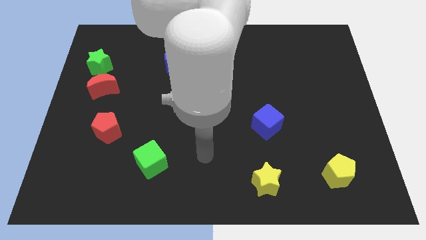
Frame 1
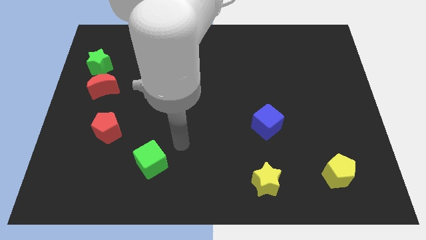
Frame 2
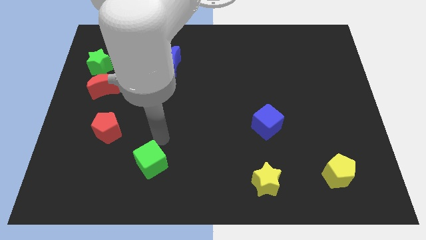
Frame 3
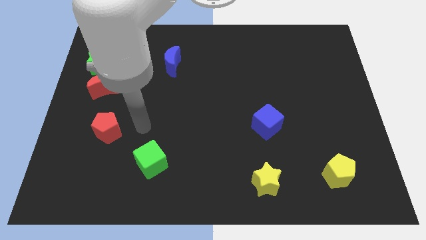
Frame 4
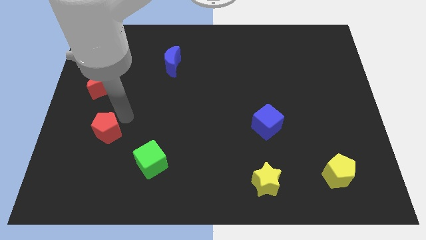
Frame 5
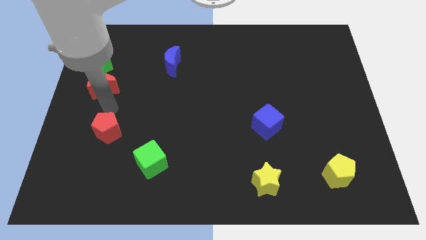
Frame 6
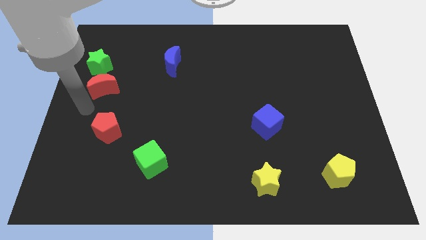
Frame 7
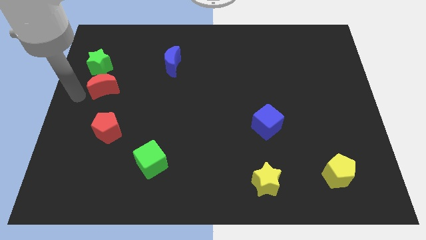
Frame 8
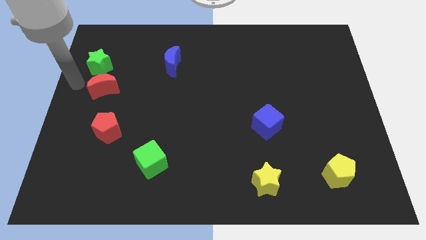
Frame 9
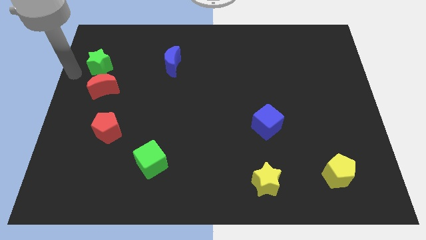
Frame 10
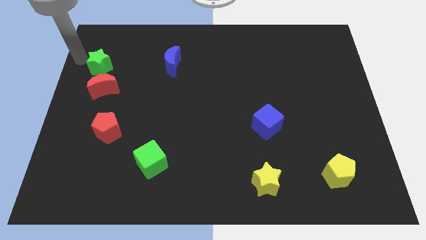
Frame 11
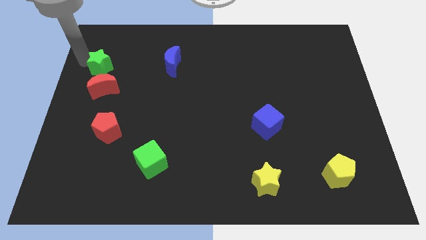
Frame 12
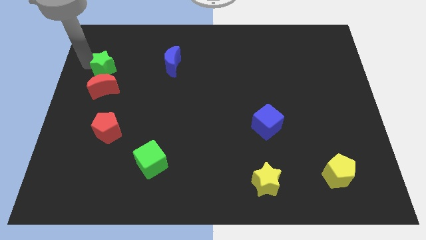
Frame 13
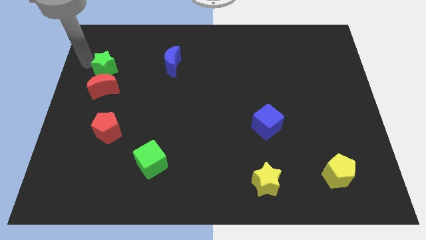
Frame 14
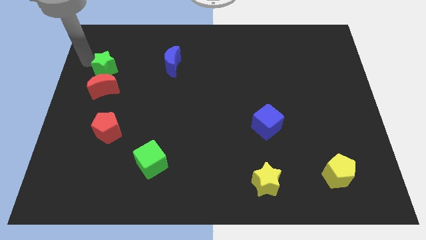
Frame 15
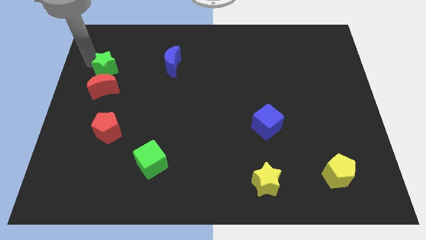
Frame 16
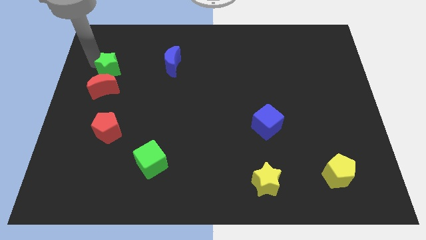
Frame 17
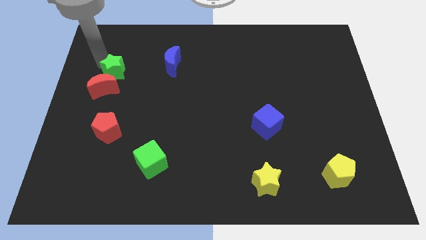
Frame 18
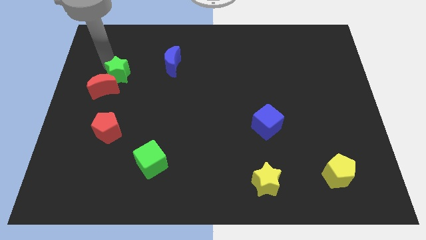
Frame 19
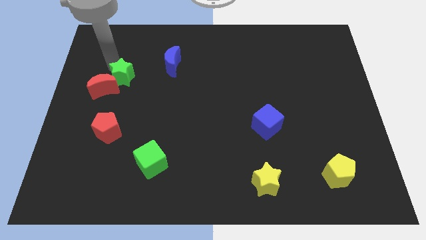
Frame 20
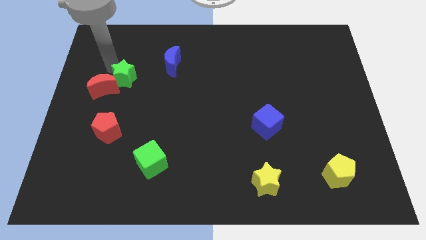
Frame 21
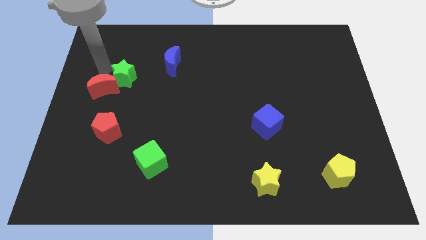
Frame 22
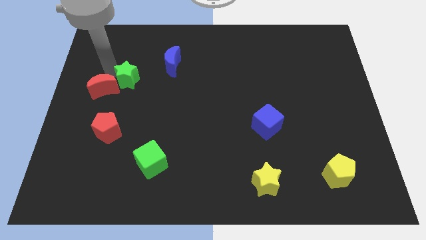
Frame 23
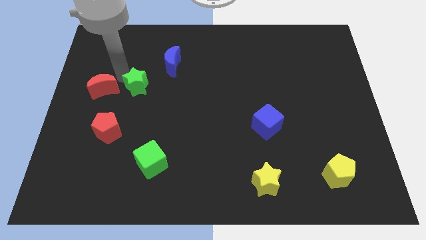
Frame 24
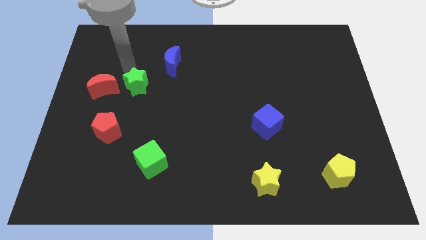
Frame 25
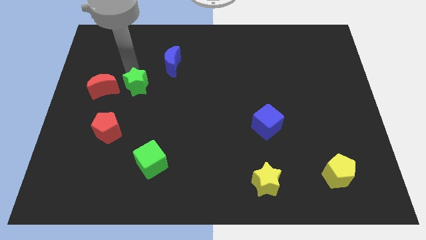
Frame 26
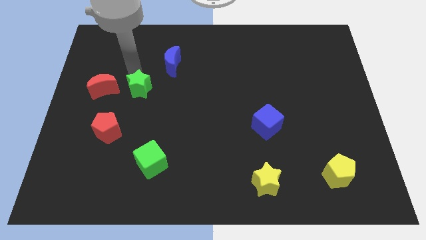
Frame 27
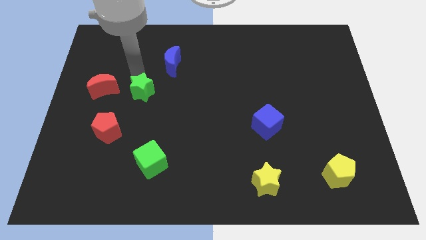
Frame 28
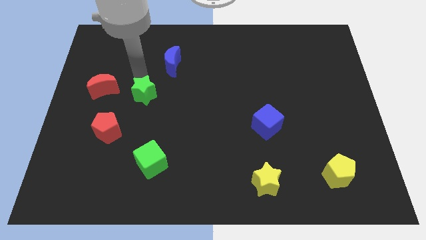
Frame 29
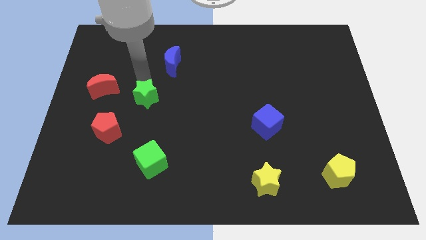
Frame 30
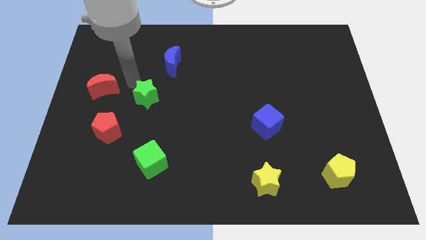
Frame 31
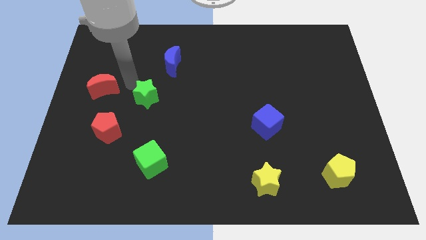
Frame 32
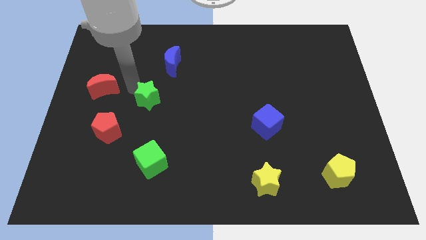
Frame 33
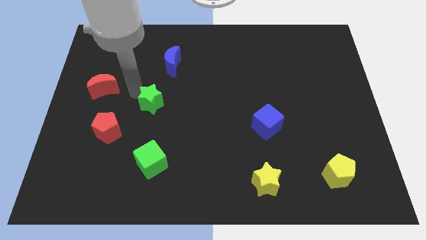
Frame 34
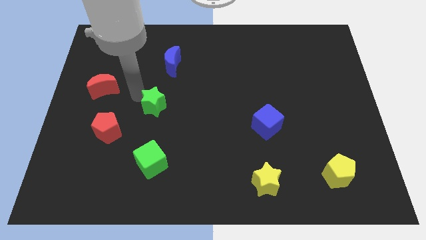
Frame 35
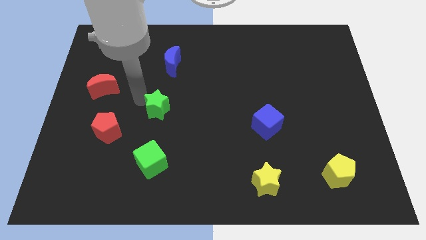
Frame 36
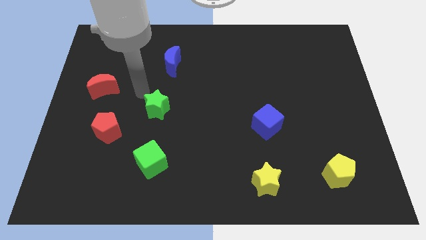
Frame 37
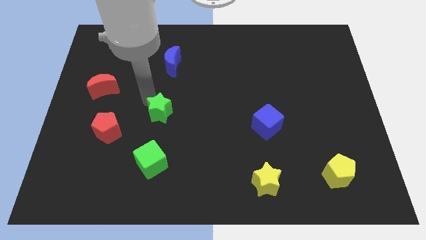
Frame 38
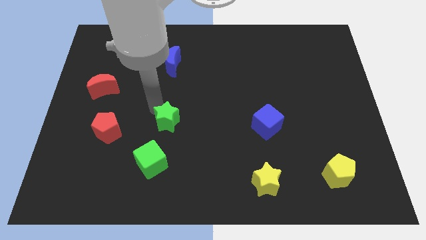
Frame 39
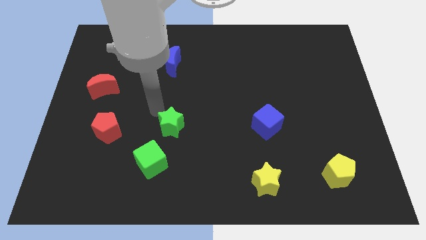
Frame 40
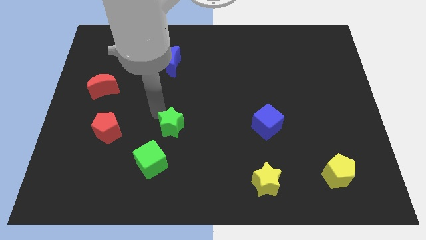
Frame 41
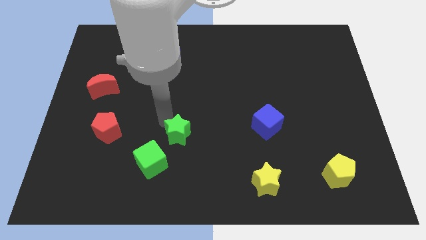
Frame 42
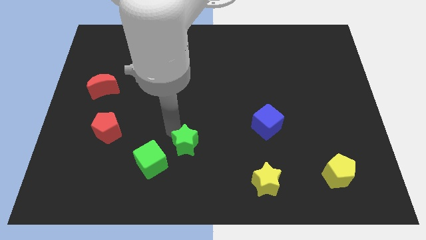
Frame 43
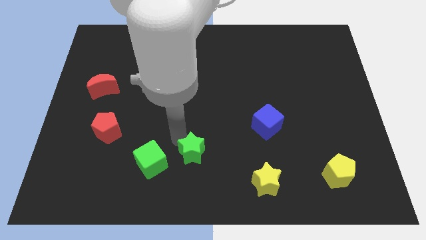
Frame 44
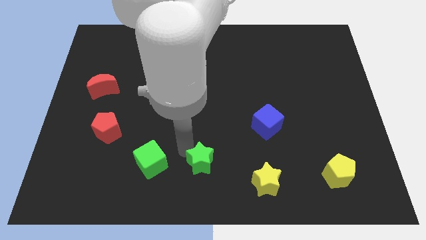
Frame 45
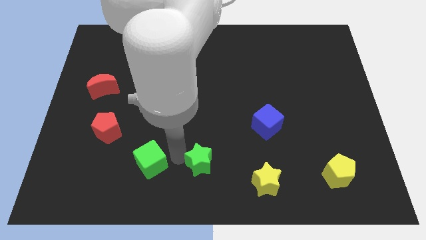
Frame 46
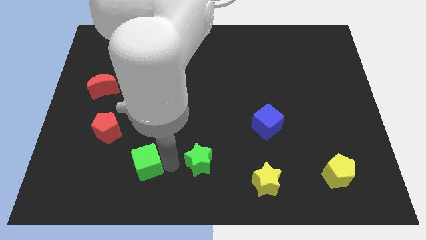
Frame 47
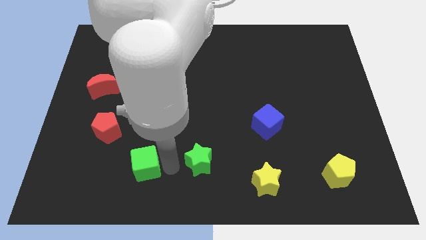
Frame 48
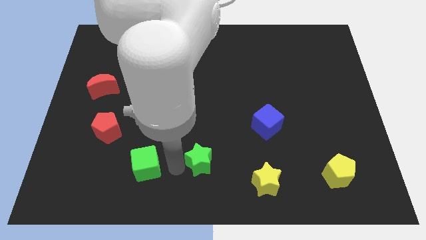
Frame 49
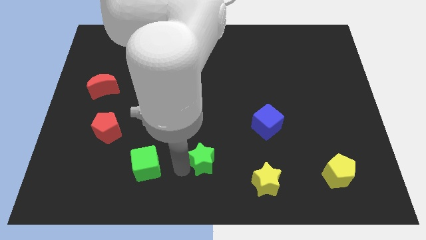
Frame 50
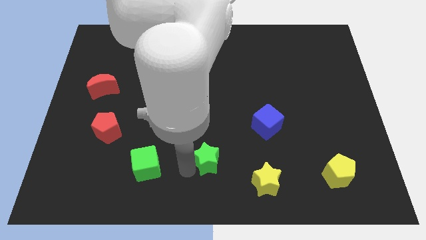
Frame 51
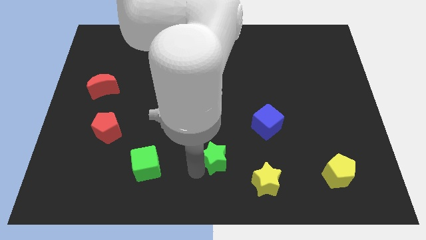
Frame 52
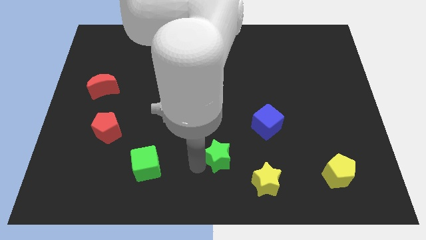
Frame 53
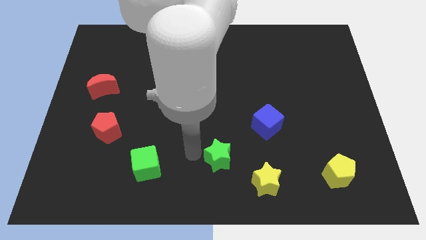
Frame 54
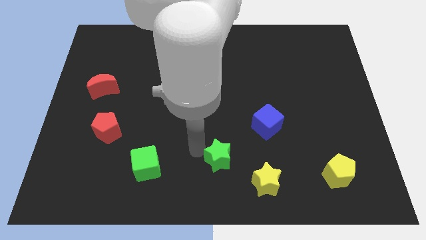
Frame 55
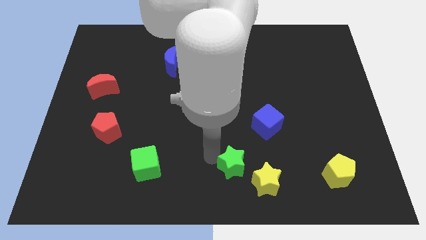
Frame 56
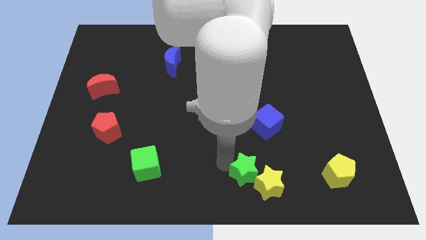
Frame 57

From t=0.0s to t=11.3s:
move the green star towards the yellow star

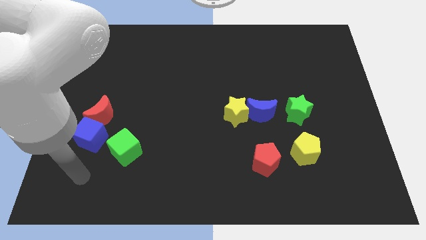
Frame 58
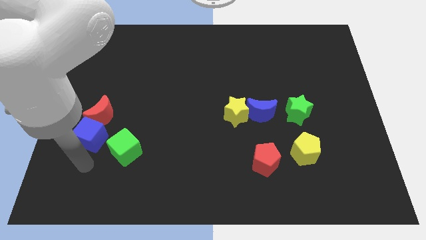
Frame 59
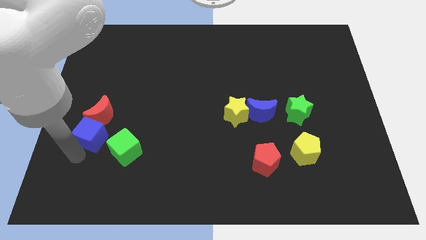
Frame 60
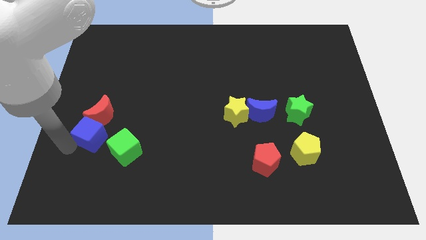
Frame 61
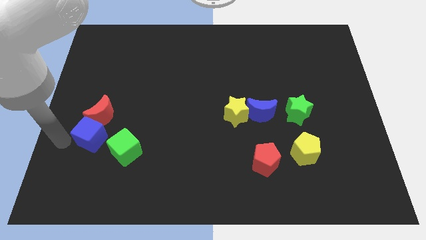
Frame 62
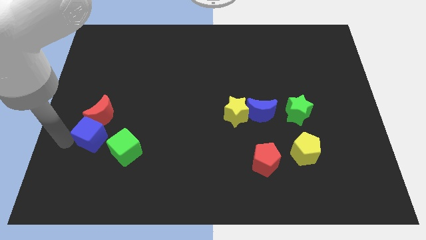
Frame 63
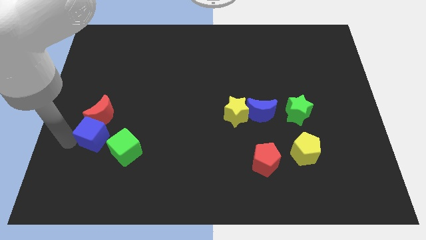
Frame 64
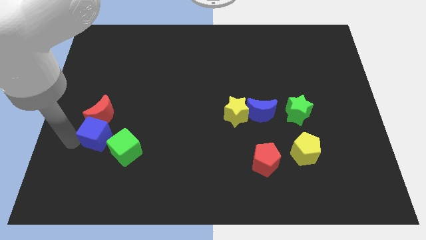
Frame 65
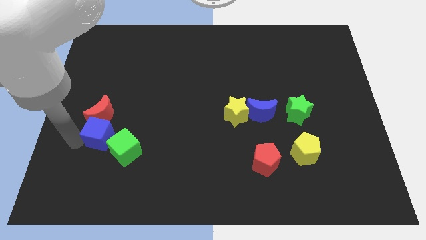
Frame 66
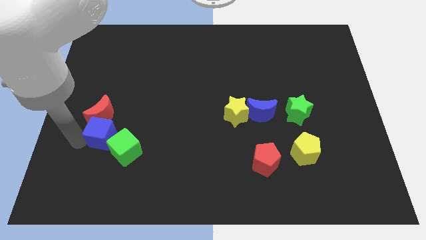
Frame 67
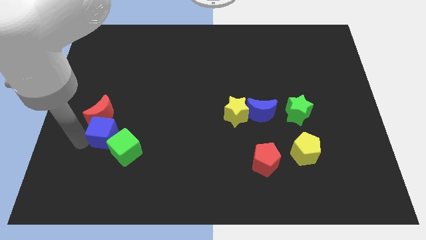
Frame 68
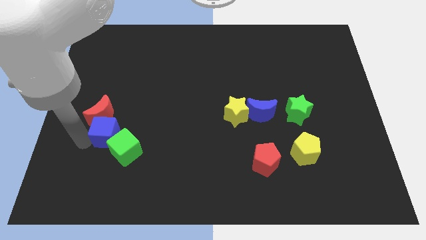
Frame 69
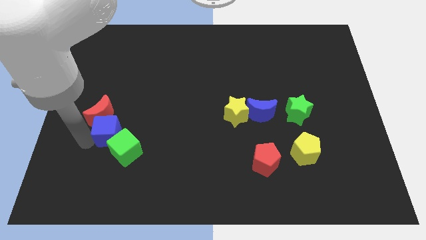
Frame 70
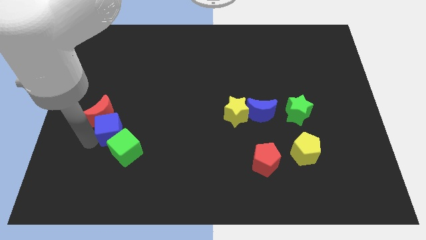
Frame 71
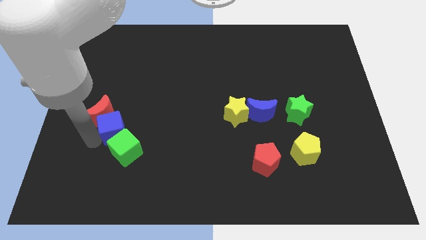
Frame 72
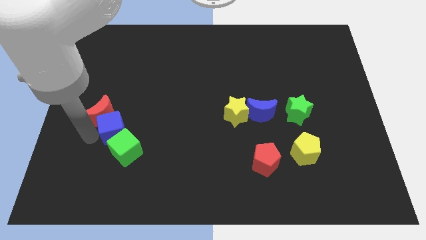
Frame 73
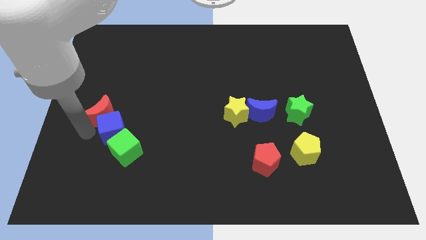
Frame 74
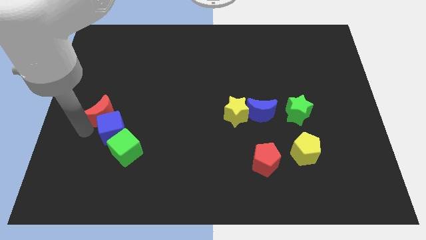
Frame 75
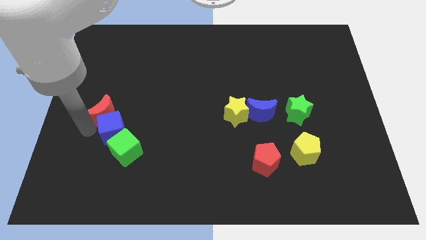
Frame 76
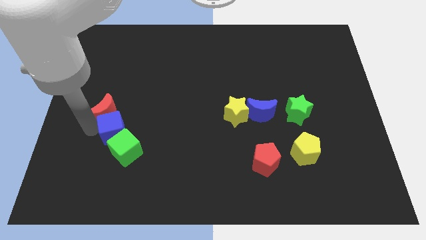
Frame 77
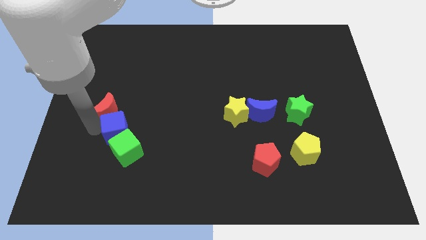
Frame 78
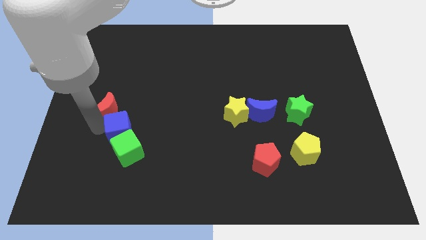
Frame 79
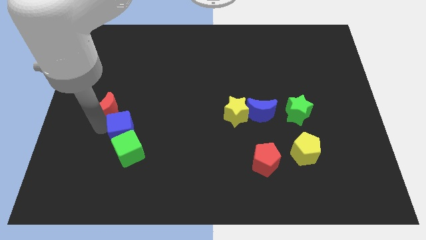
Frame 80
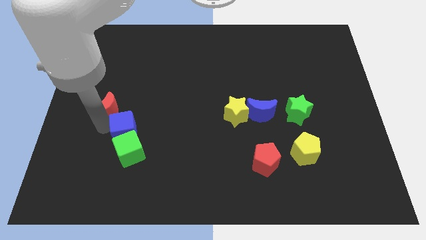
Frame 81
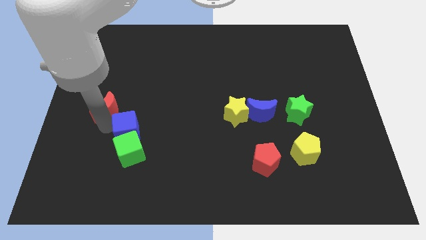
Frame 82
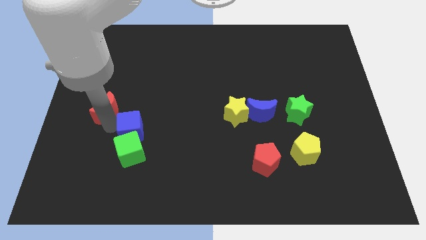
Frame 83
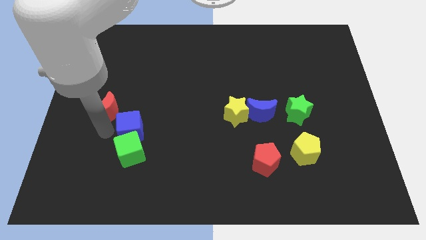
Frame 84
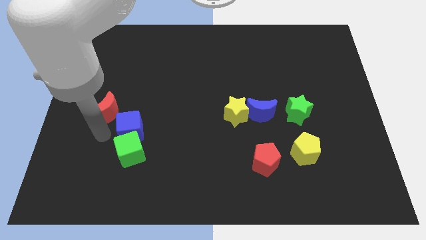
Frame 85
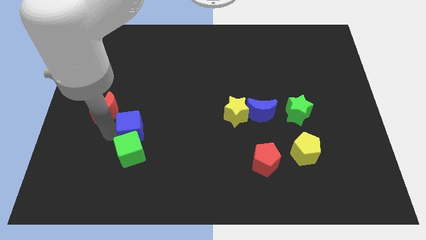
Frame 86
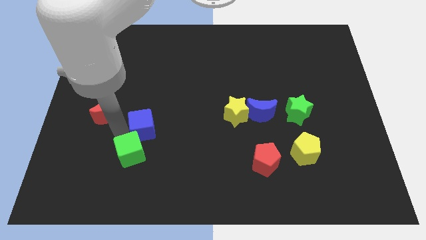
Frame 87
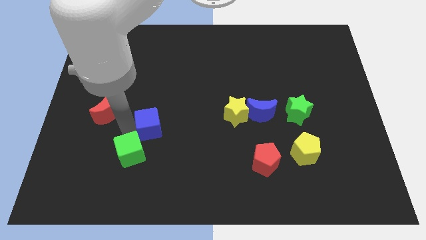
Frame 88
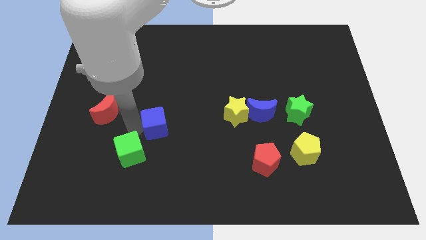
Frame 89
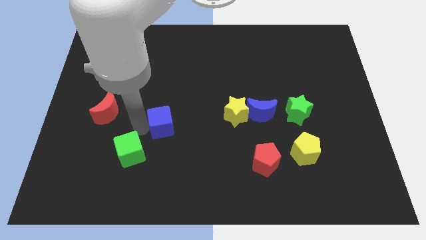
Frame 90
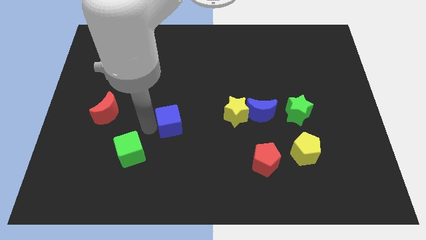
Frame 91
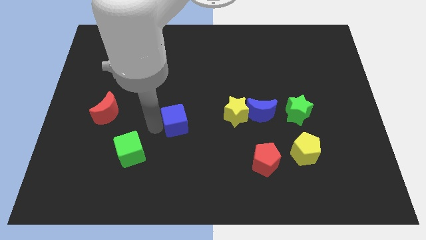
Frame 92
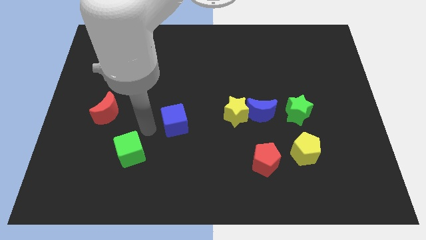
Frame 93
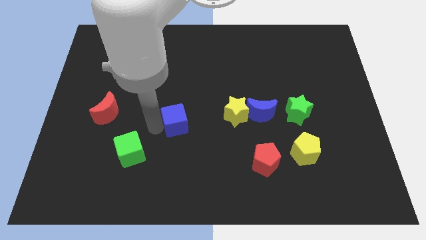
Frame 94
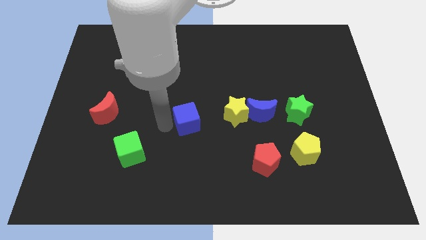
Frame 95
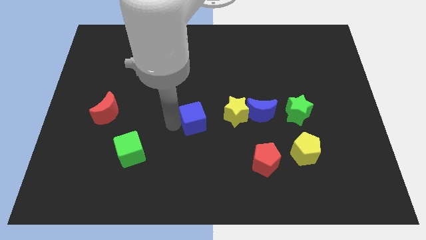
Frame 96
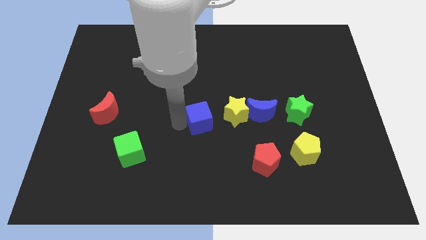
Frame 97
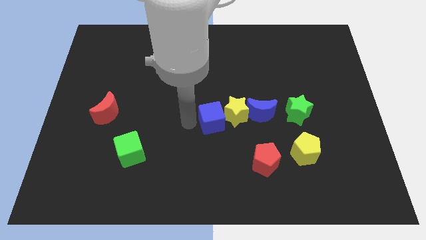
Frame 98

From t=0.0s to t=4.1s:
put the blue cube to the yellow star
